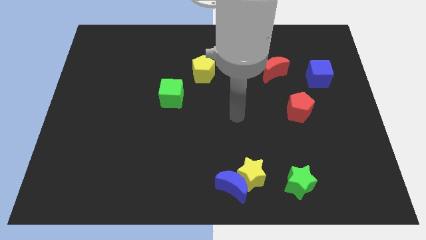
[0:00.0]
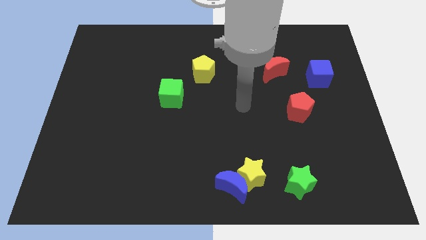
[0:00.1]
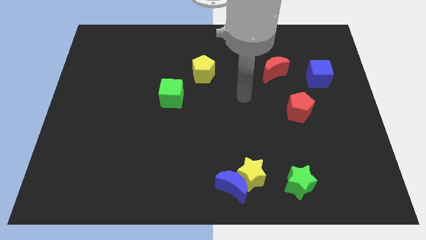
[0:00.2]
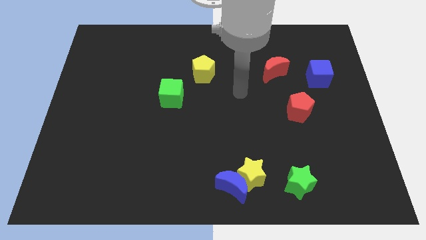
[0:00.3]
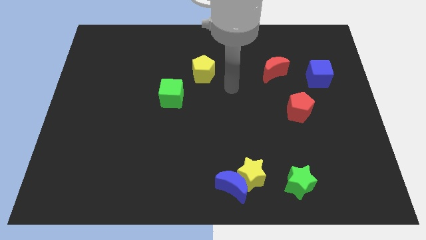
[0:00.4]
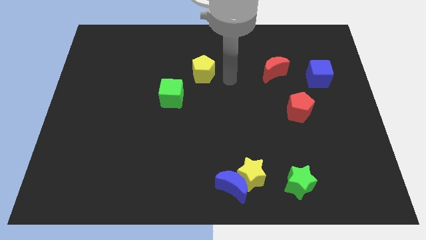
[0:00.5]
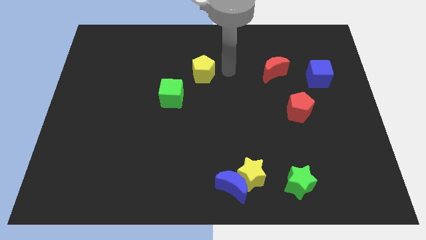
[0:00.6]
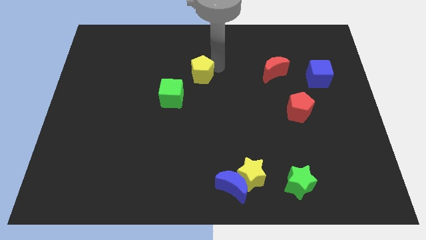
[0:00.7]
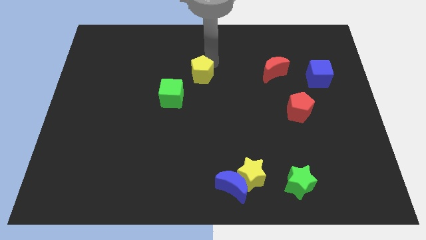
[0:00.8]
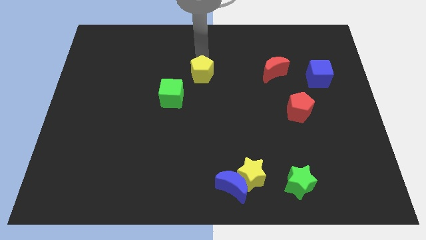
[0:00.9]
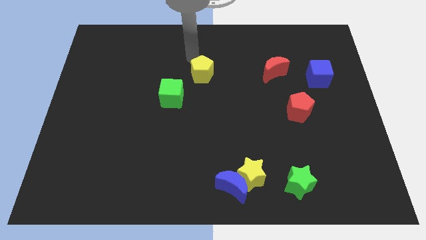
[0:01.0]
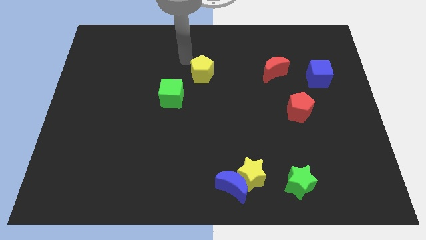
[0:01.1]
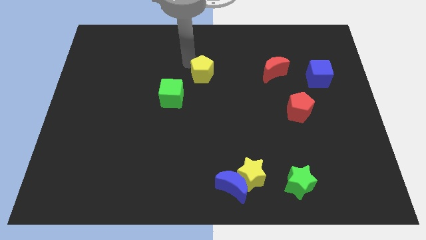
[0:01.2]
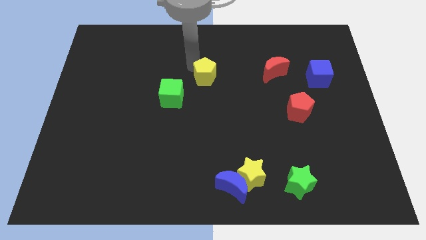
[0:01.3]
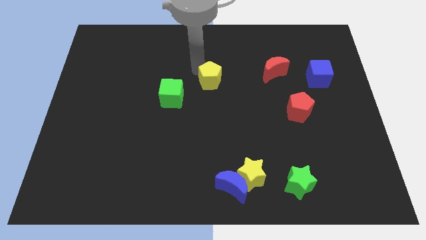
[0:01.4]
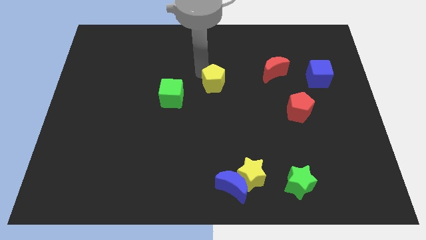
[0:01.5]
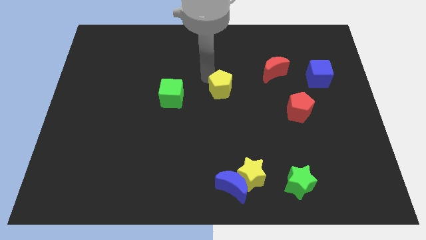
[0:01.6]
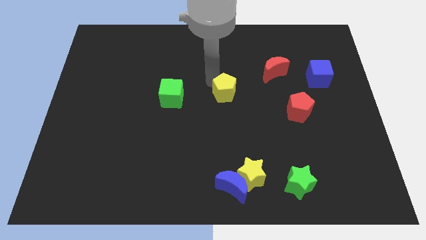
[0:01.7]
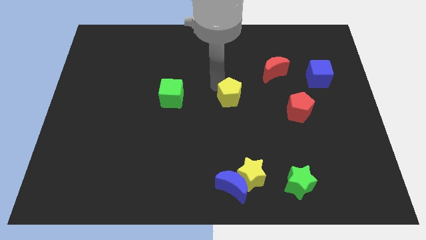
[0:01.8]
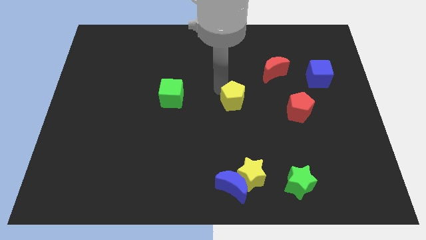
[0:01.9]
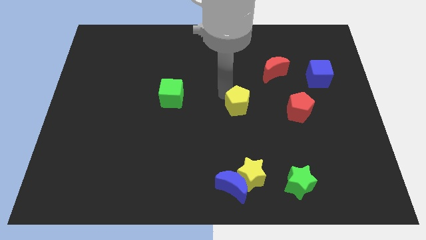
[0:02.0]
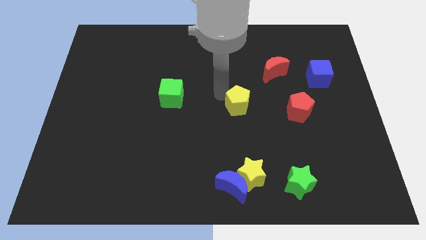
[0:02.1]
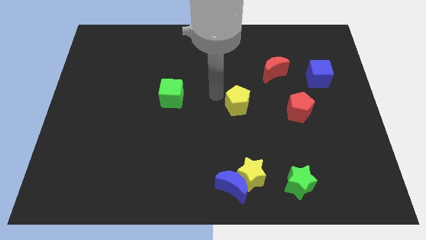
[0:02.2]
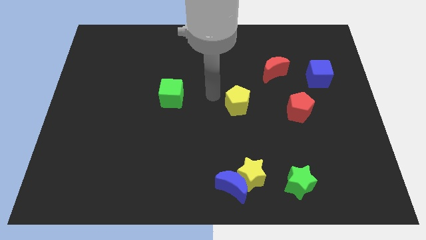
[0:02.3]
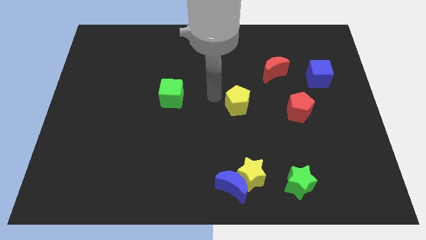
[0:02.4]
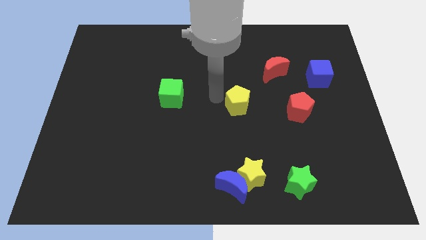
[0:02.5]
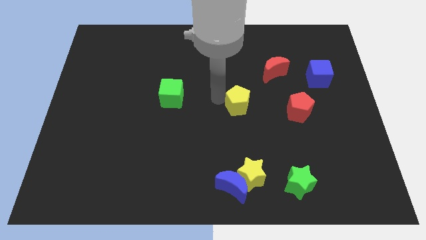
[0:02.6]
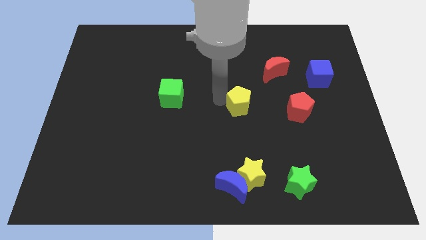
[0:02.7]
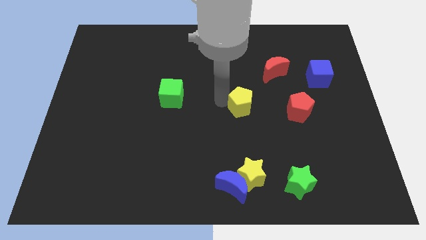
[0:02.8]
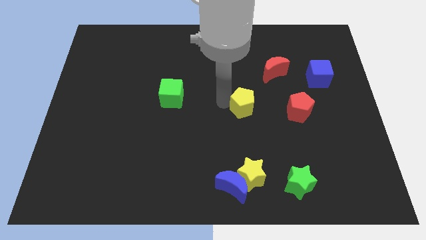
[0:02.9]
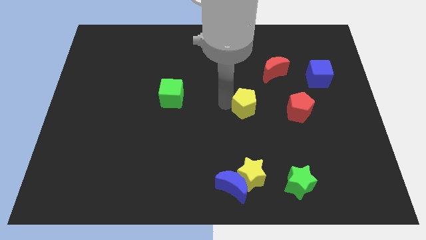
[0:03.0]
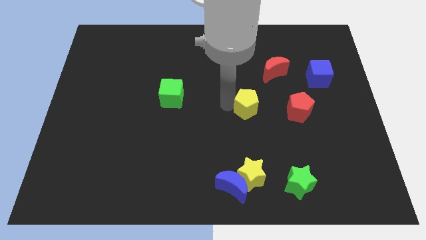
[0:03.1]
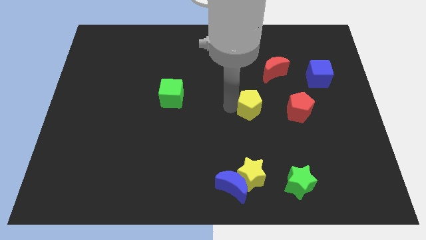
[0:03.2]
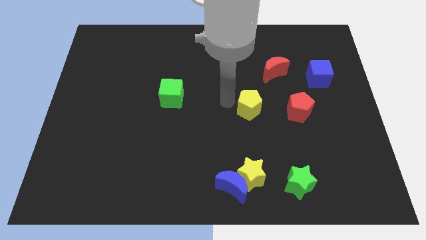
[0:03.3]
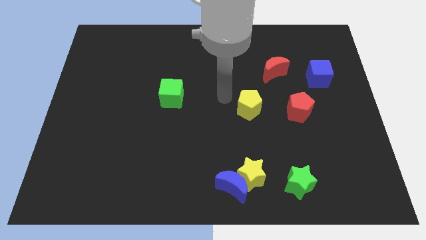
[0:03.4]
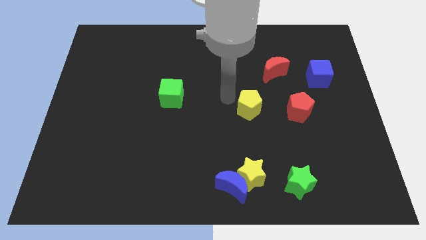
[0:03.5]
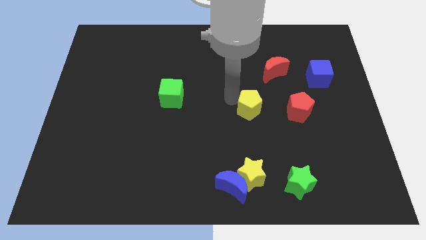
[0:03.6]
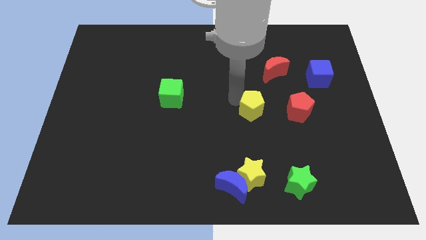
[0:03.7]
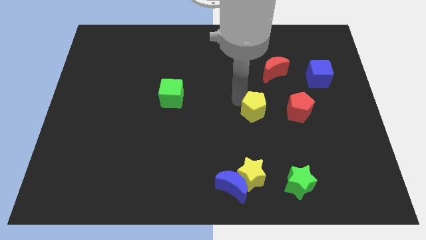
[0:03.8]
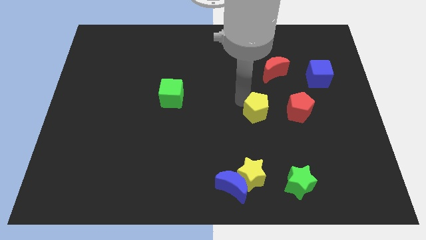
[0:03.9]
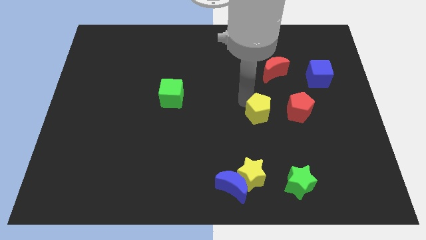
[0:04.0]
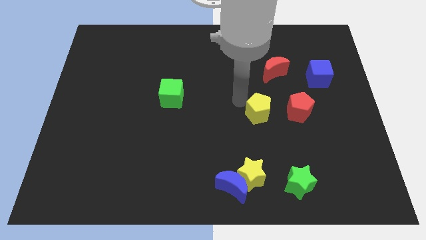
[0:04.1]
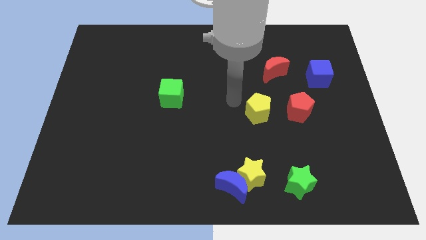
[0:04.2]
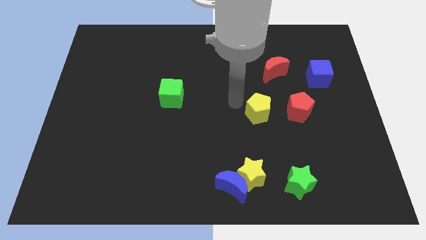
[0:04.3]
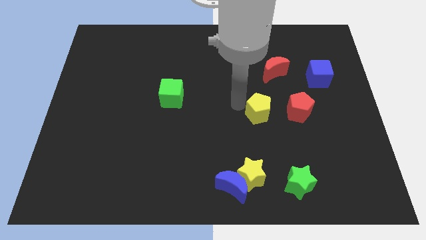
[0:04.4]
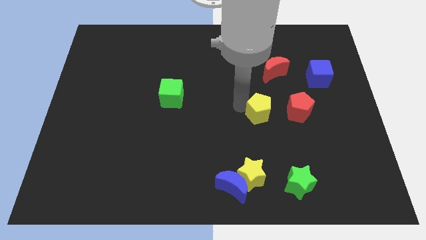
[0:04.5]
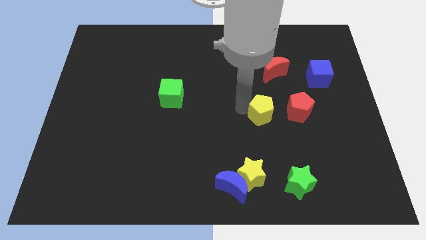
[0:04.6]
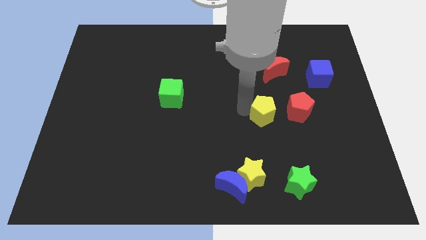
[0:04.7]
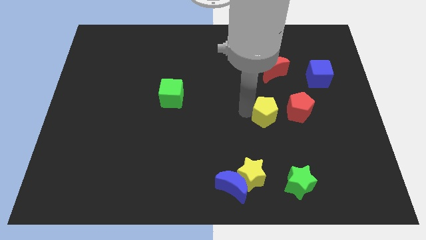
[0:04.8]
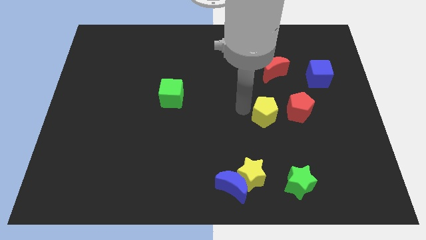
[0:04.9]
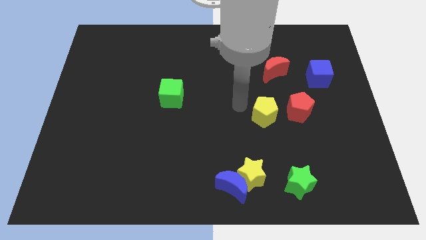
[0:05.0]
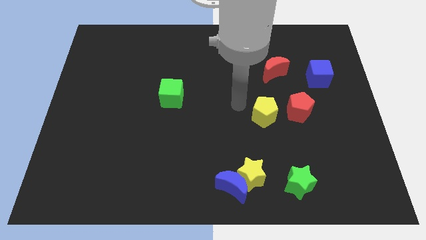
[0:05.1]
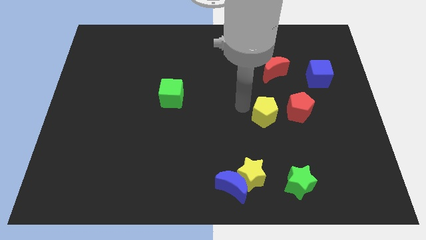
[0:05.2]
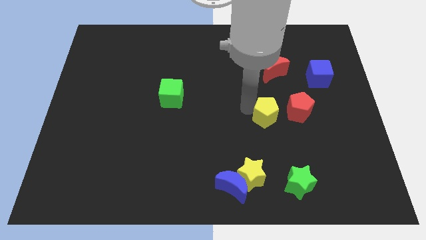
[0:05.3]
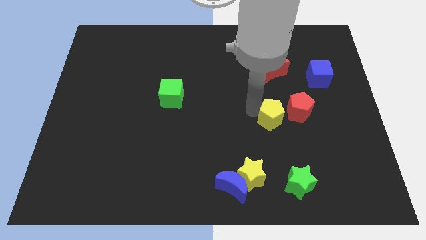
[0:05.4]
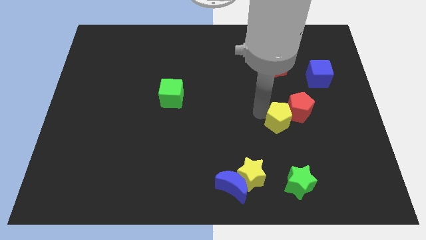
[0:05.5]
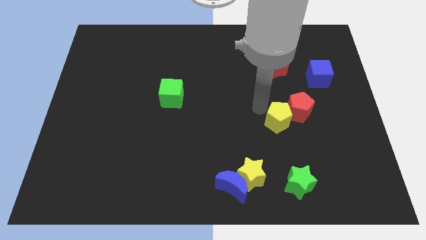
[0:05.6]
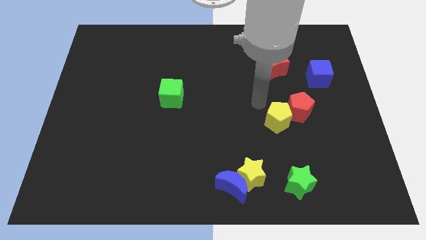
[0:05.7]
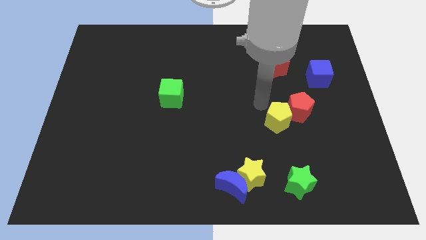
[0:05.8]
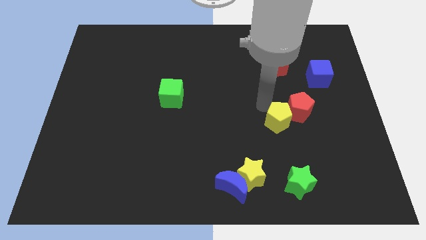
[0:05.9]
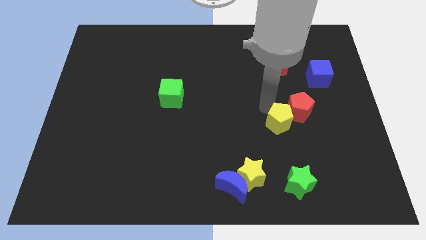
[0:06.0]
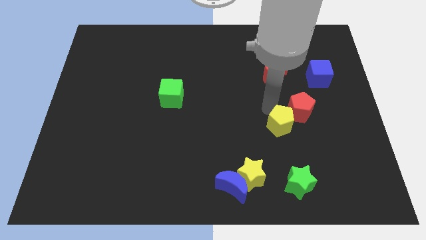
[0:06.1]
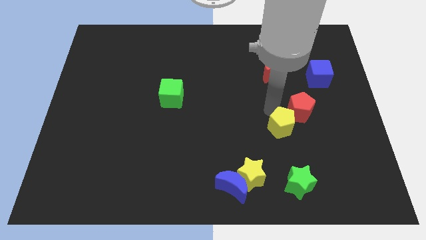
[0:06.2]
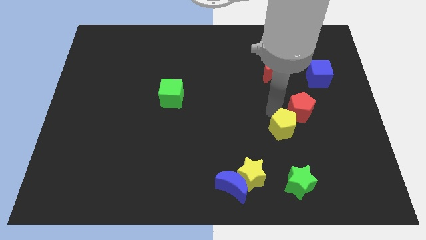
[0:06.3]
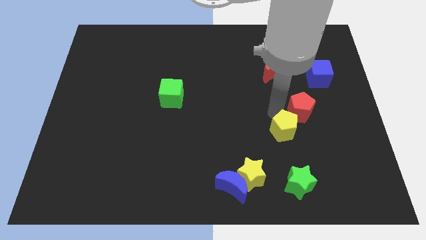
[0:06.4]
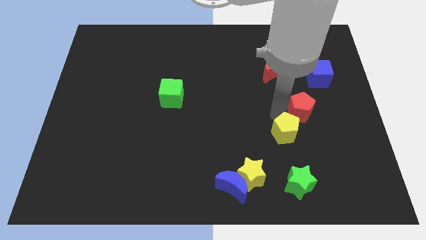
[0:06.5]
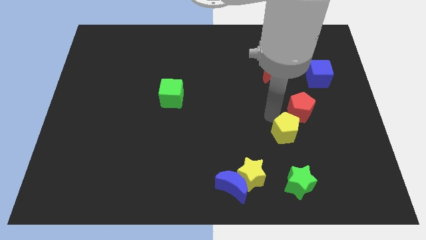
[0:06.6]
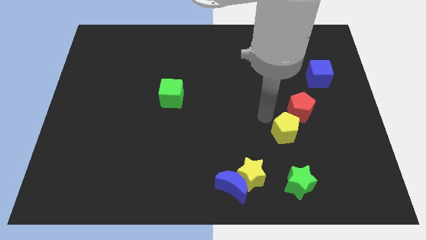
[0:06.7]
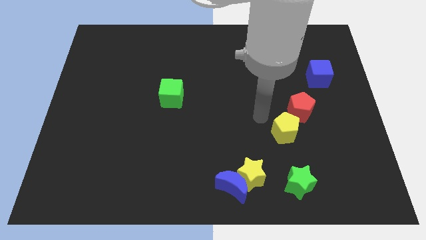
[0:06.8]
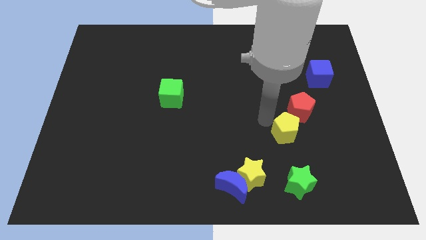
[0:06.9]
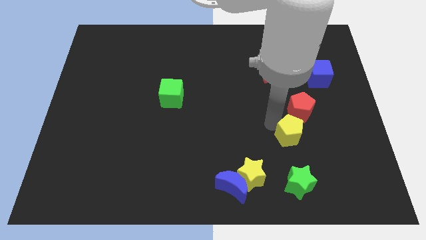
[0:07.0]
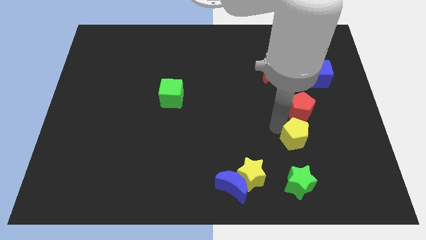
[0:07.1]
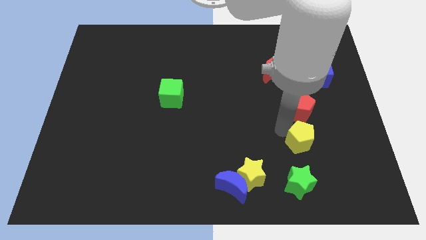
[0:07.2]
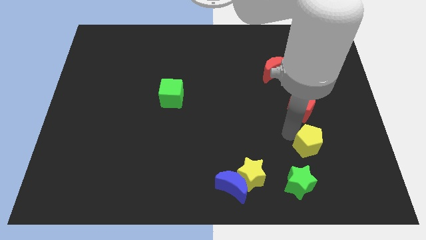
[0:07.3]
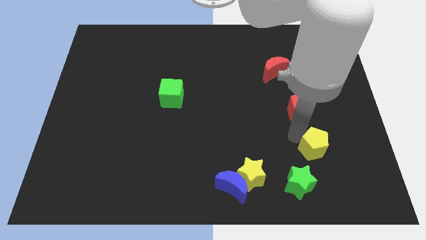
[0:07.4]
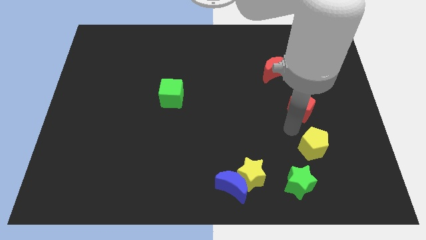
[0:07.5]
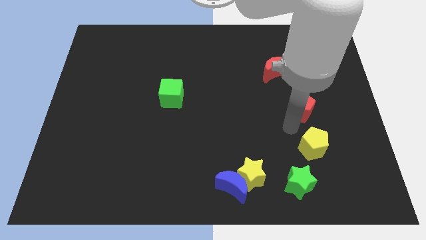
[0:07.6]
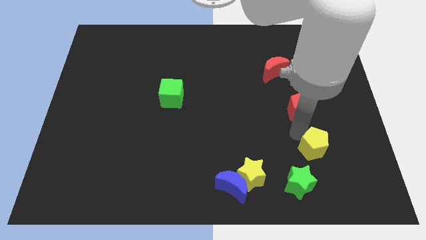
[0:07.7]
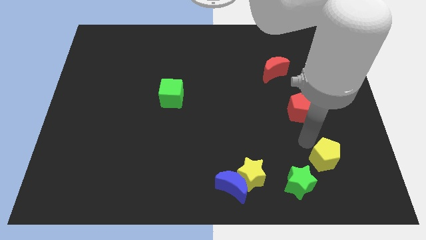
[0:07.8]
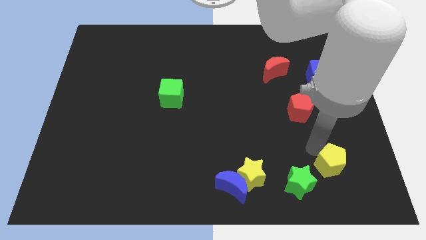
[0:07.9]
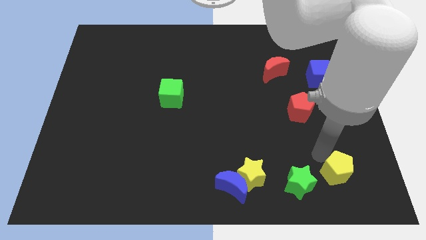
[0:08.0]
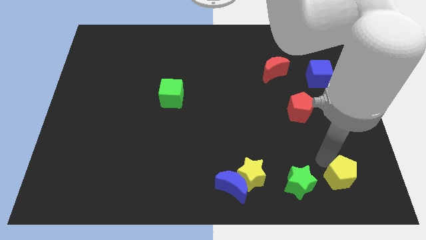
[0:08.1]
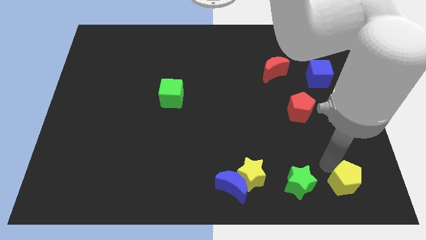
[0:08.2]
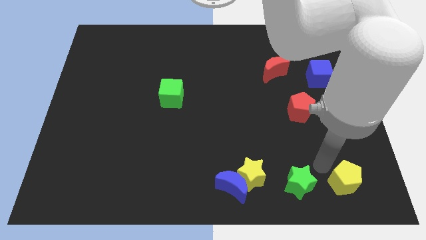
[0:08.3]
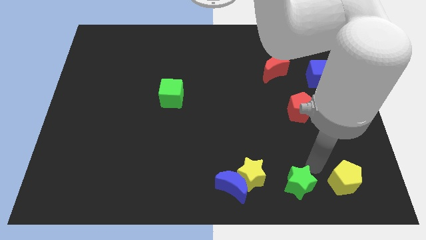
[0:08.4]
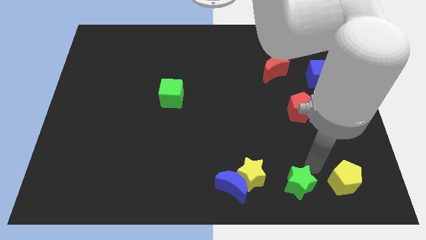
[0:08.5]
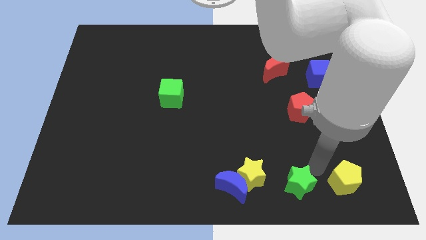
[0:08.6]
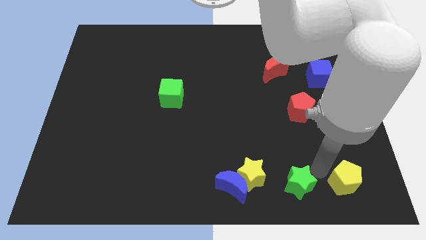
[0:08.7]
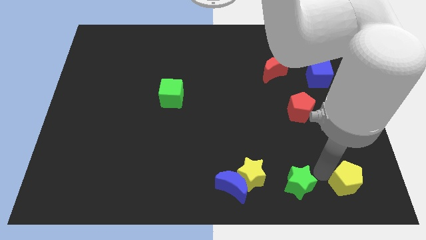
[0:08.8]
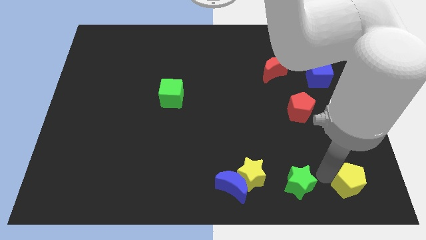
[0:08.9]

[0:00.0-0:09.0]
move the yellow pentagon to the lower right corner
